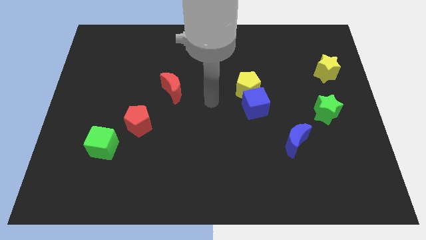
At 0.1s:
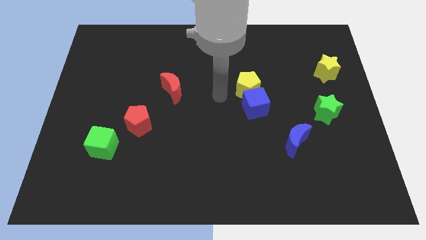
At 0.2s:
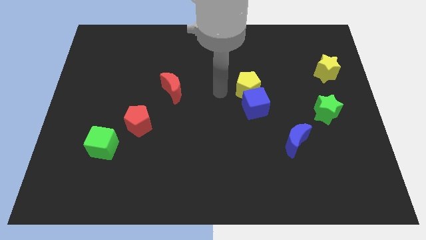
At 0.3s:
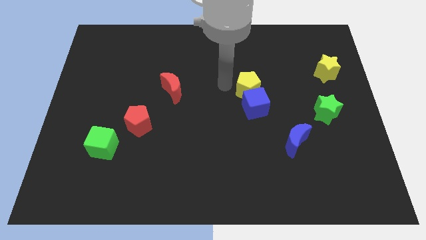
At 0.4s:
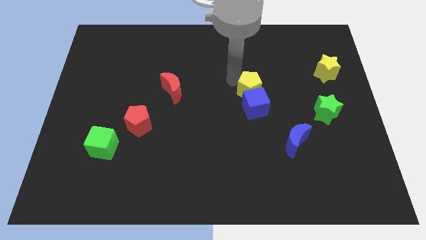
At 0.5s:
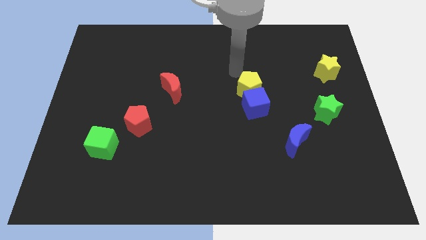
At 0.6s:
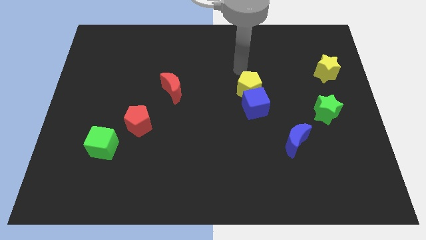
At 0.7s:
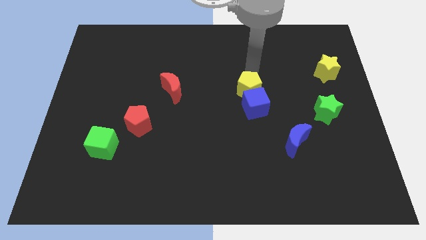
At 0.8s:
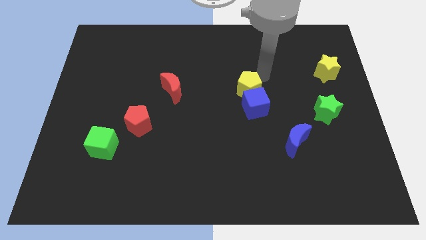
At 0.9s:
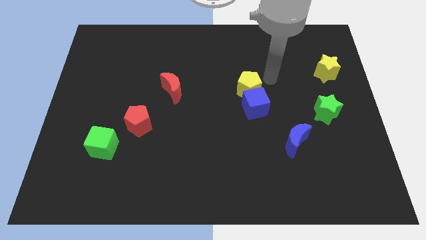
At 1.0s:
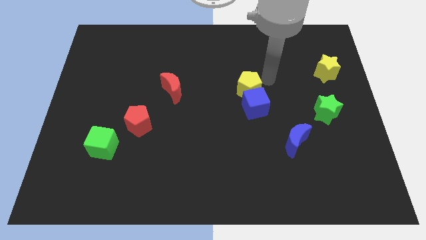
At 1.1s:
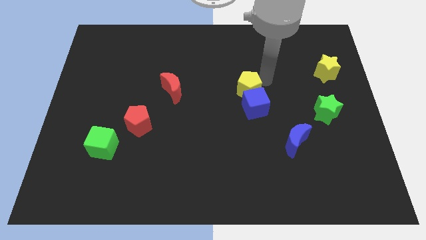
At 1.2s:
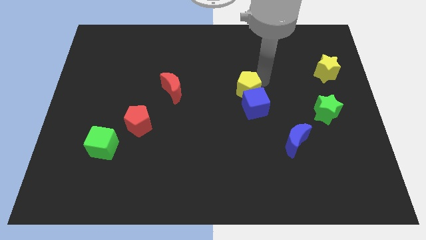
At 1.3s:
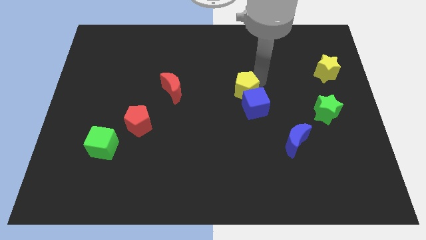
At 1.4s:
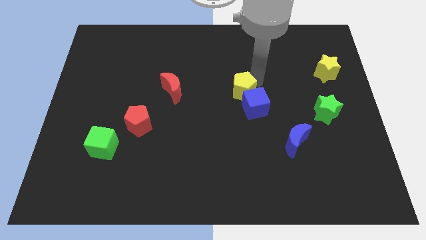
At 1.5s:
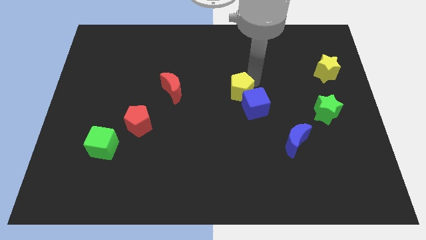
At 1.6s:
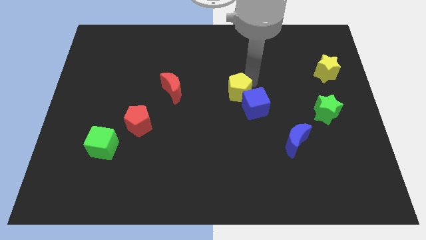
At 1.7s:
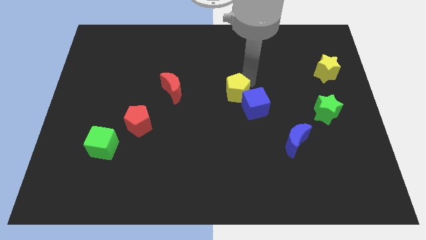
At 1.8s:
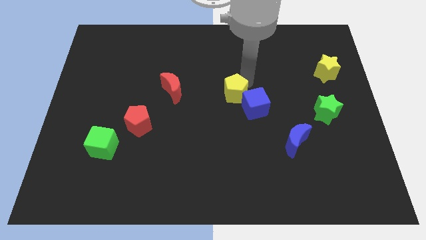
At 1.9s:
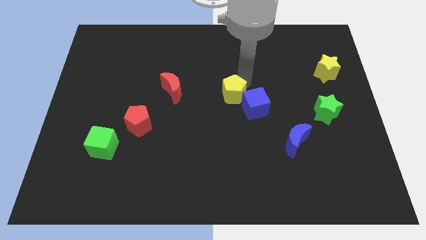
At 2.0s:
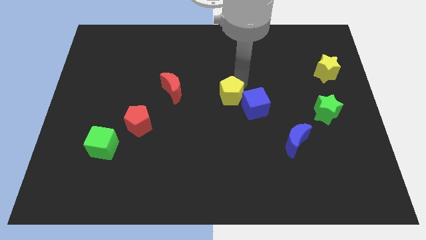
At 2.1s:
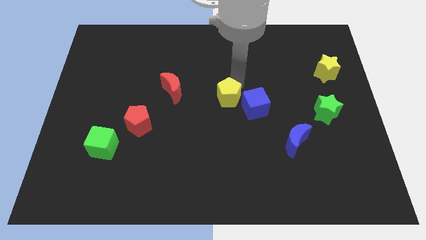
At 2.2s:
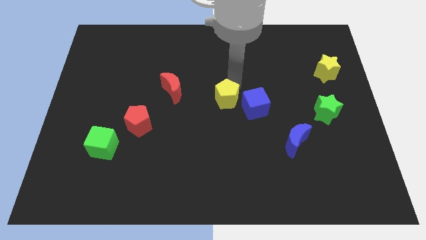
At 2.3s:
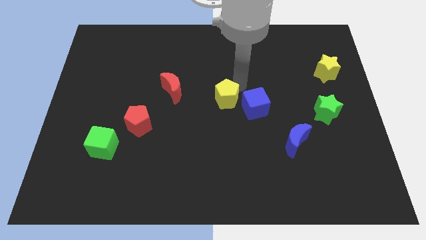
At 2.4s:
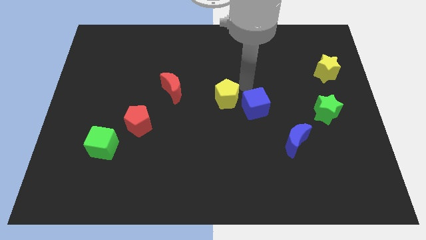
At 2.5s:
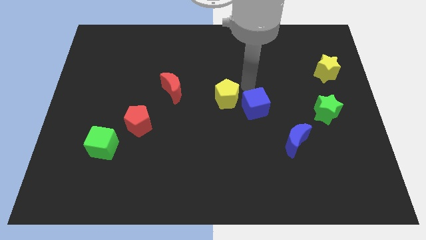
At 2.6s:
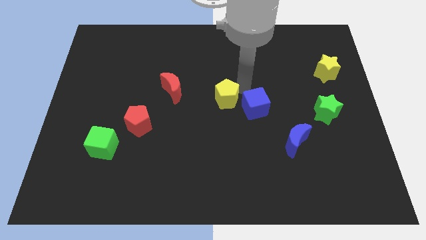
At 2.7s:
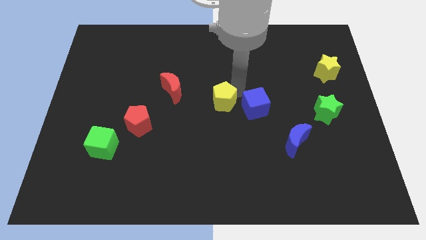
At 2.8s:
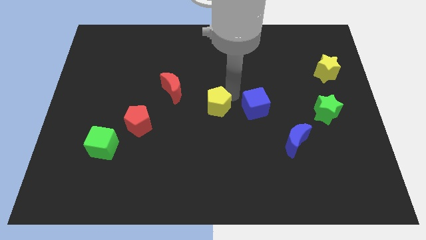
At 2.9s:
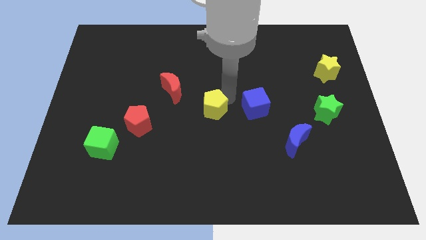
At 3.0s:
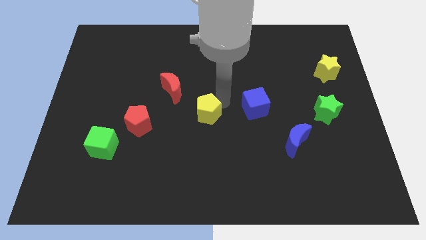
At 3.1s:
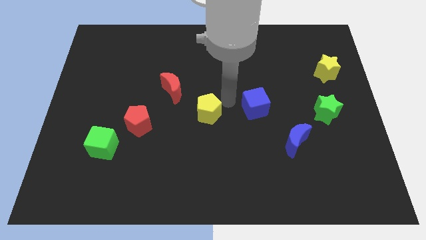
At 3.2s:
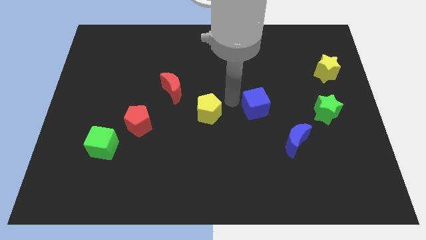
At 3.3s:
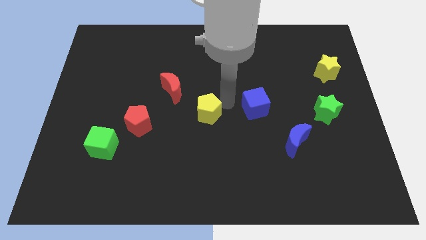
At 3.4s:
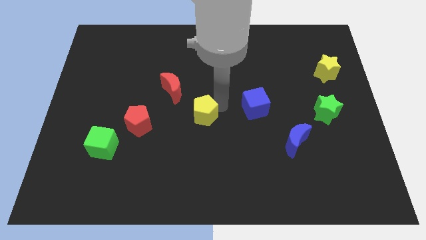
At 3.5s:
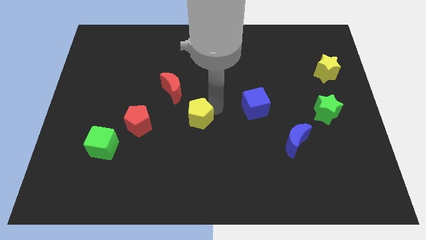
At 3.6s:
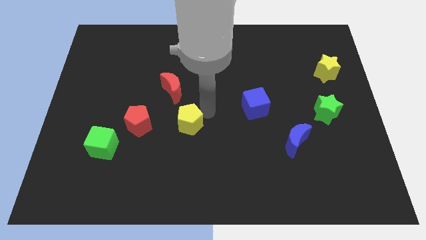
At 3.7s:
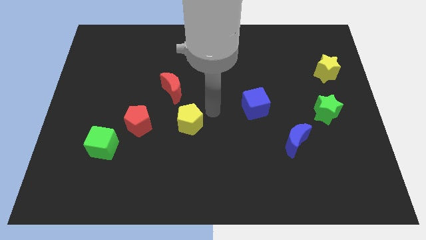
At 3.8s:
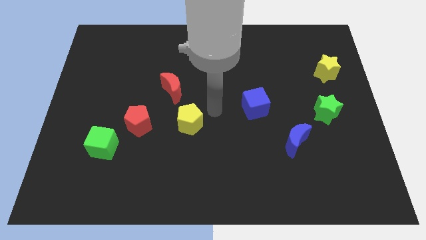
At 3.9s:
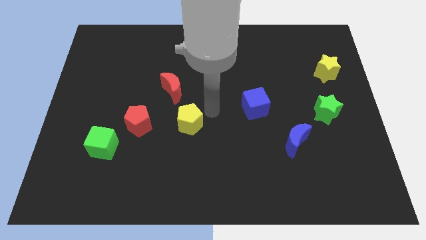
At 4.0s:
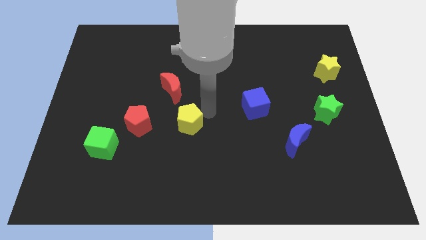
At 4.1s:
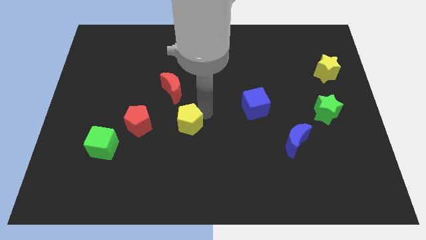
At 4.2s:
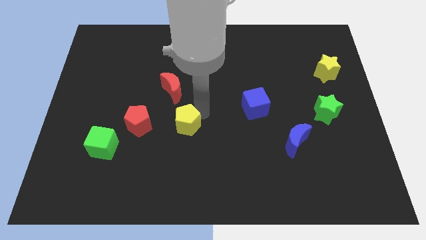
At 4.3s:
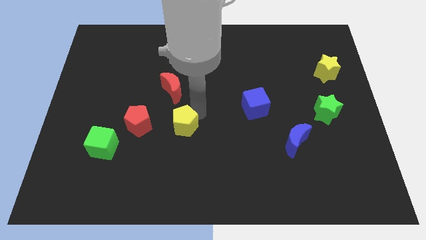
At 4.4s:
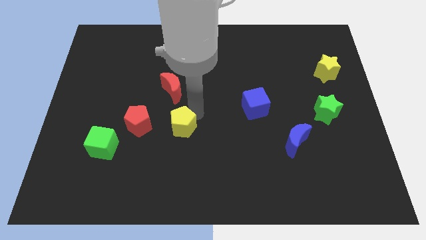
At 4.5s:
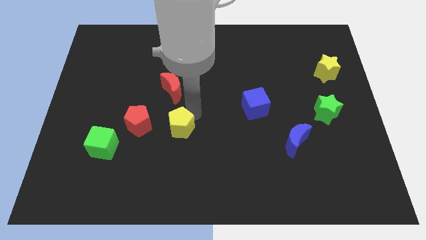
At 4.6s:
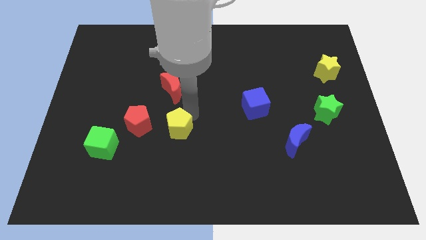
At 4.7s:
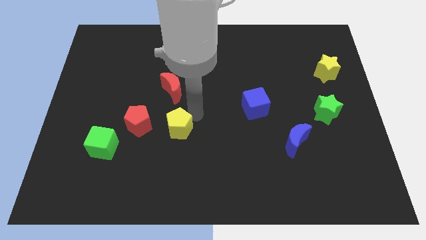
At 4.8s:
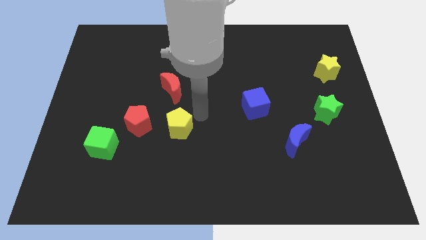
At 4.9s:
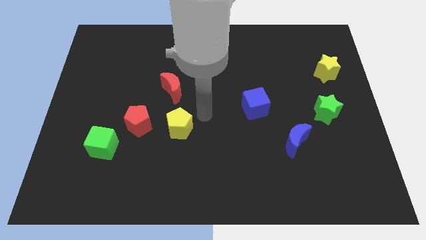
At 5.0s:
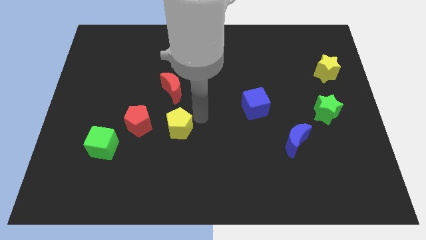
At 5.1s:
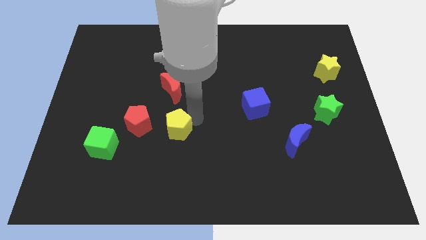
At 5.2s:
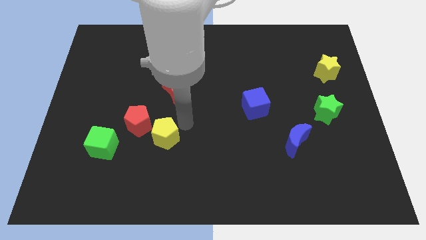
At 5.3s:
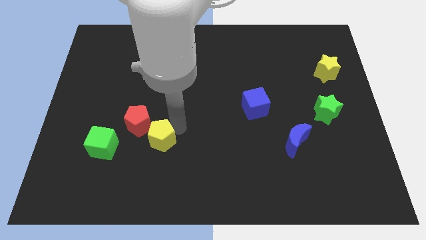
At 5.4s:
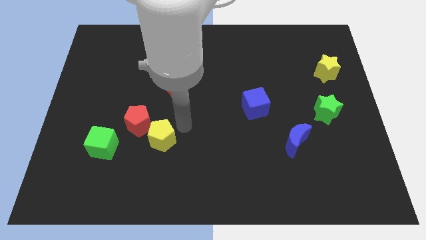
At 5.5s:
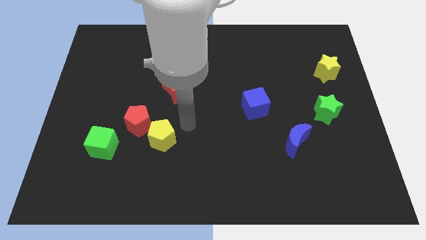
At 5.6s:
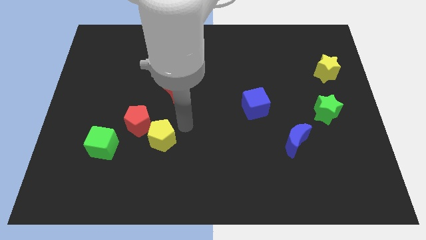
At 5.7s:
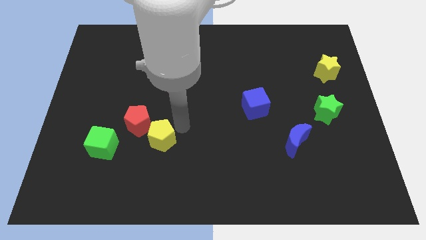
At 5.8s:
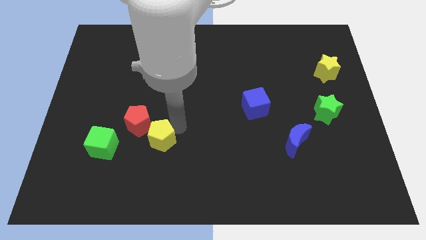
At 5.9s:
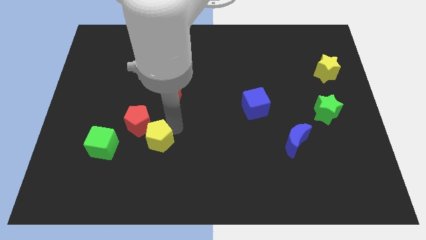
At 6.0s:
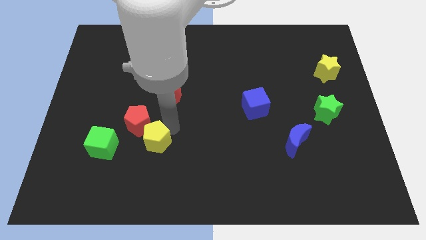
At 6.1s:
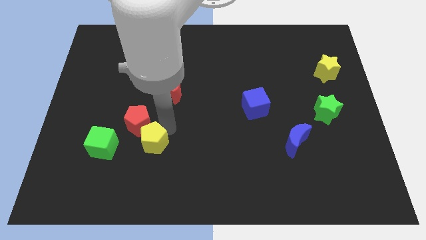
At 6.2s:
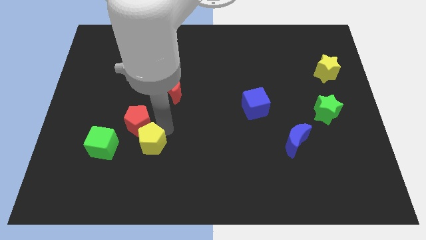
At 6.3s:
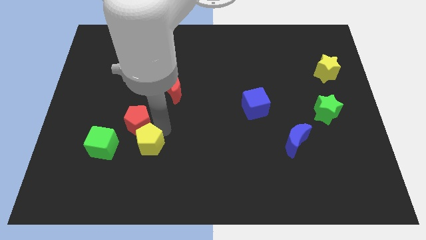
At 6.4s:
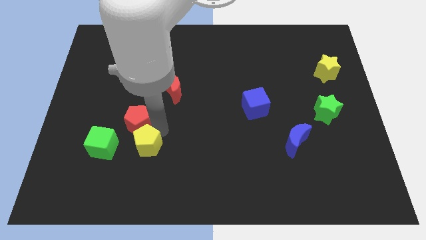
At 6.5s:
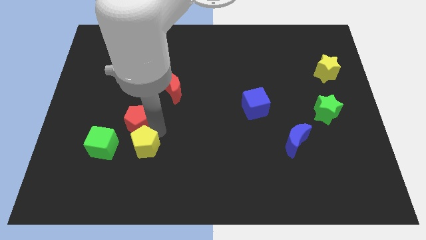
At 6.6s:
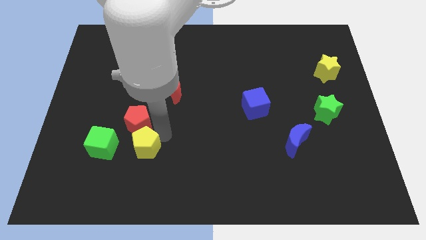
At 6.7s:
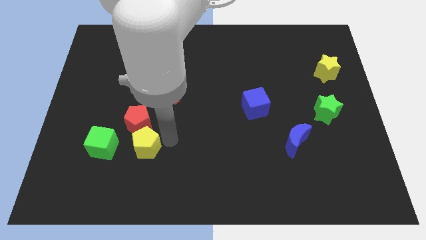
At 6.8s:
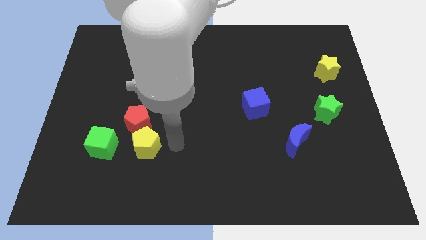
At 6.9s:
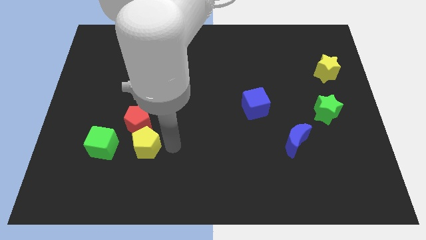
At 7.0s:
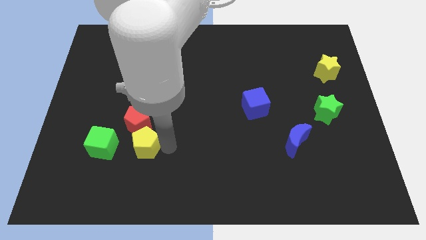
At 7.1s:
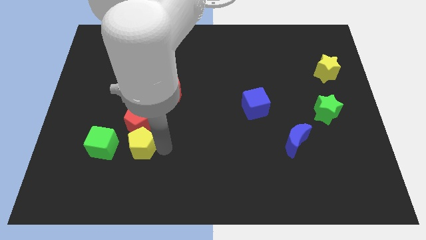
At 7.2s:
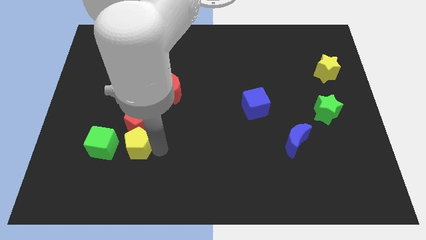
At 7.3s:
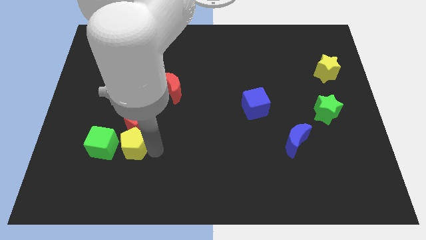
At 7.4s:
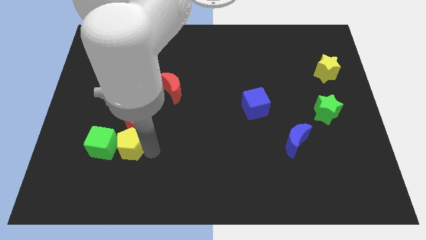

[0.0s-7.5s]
move the yellow pentagon towards the green cube
